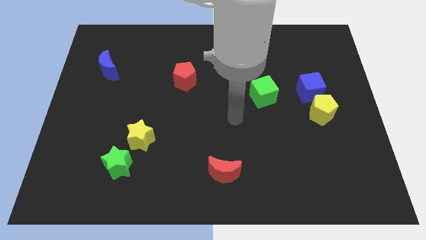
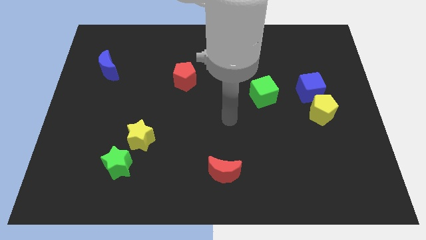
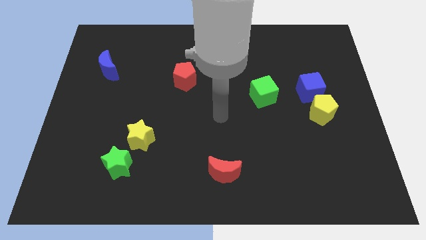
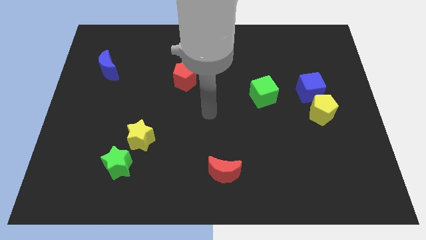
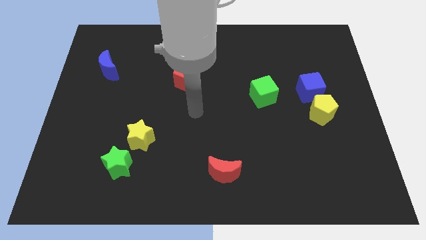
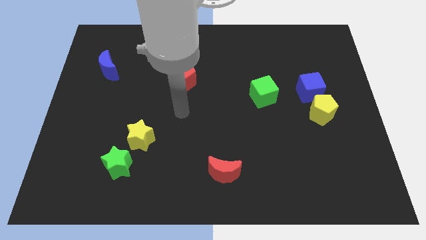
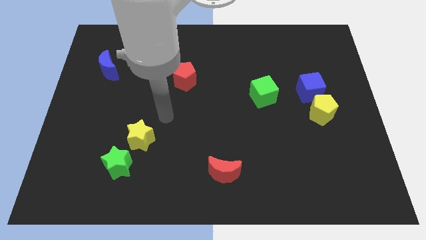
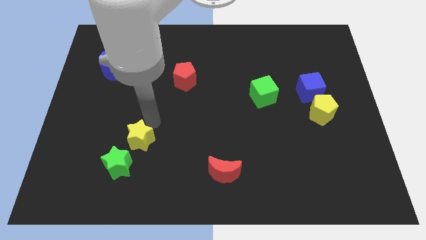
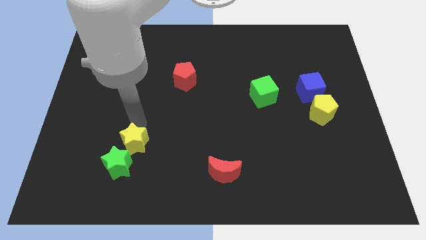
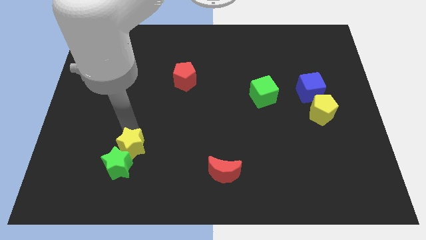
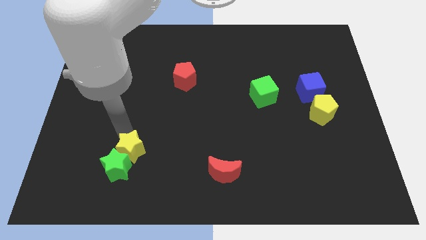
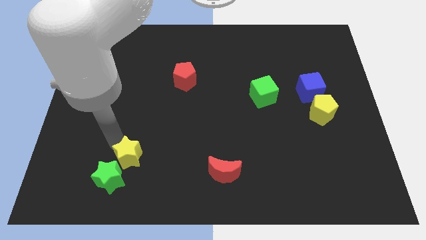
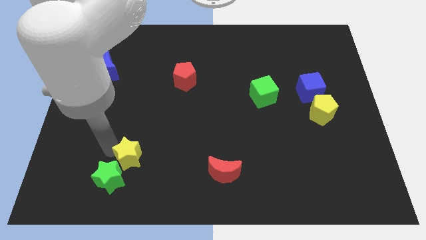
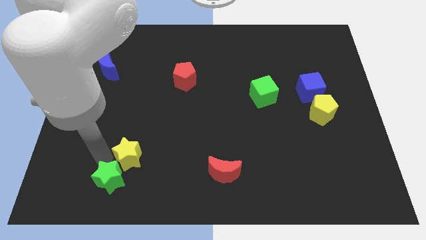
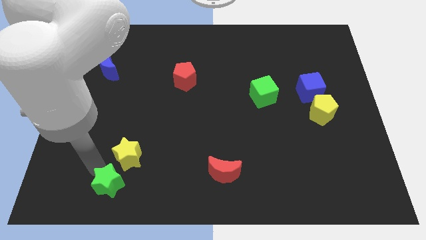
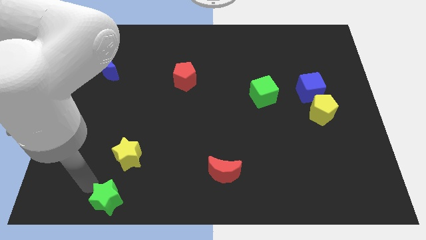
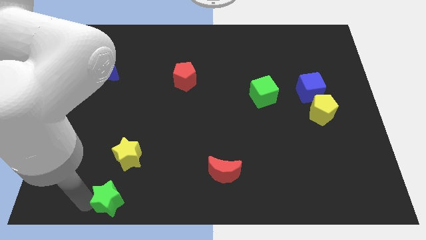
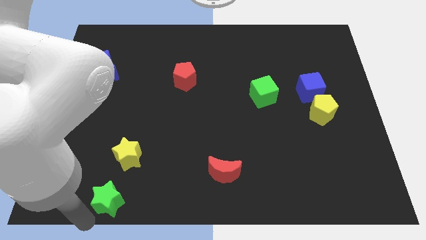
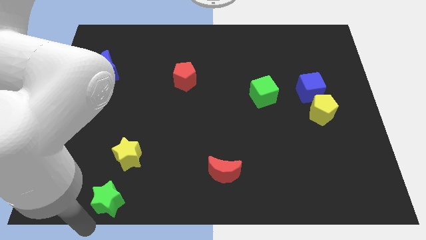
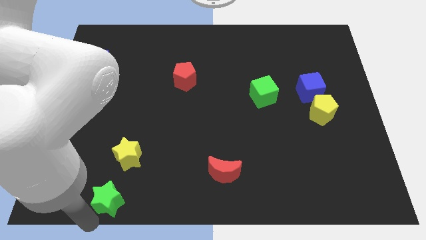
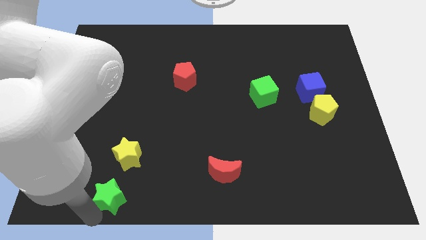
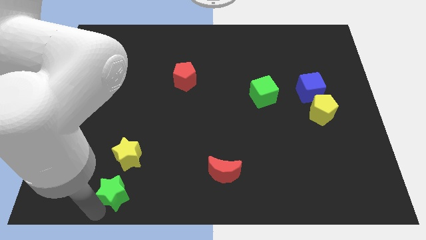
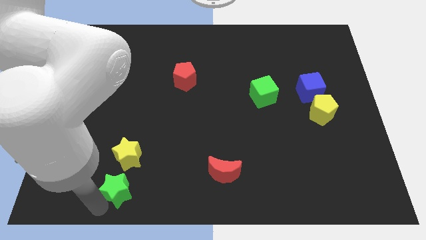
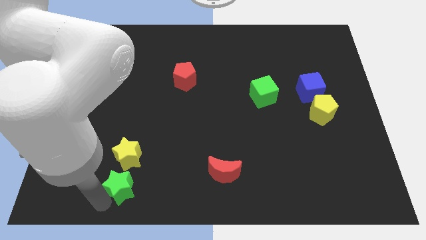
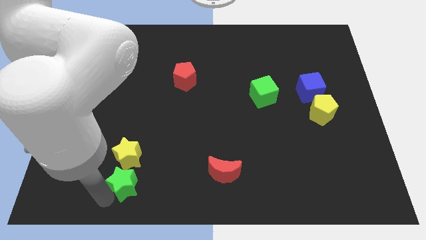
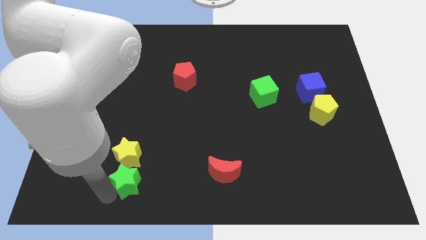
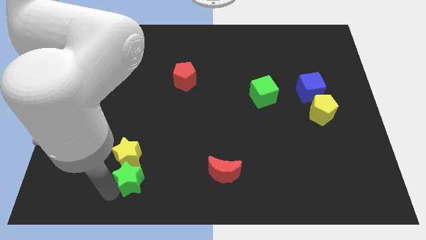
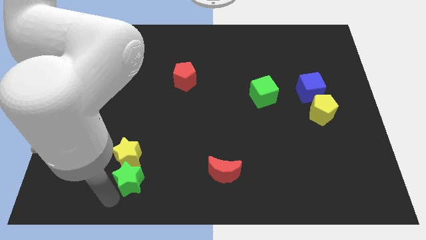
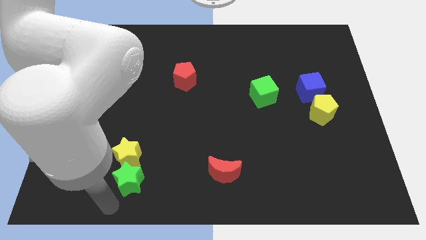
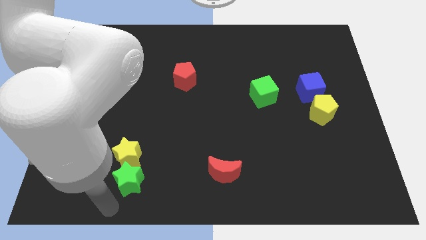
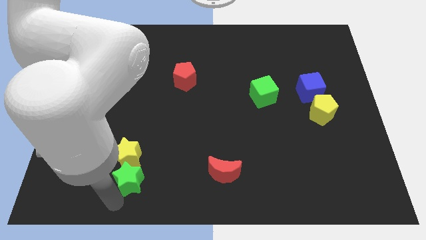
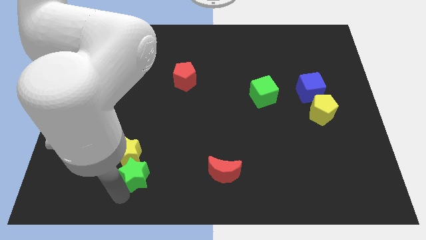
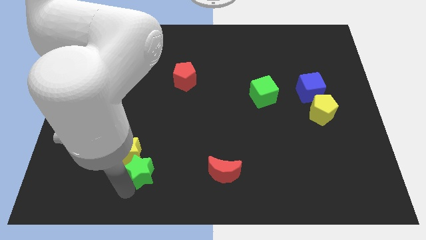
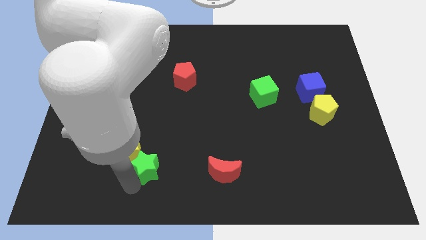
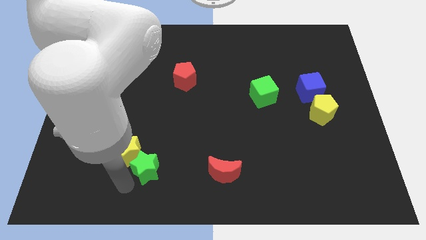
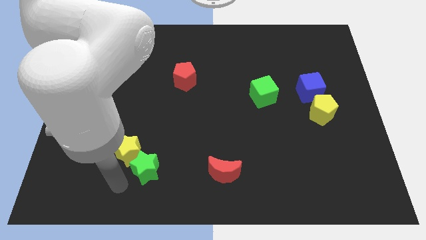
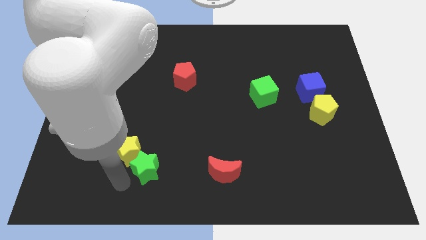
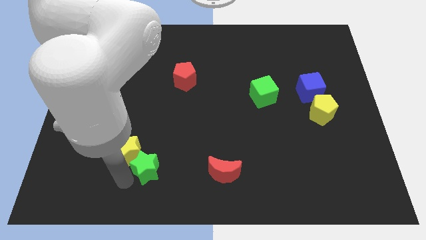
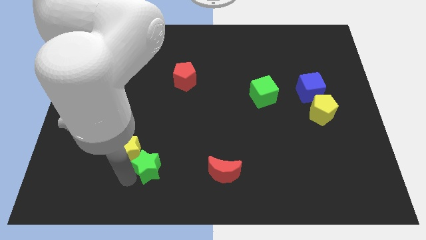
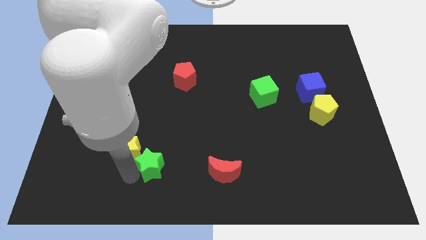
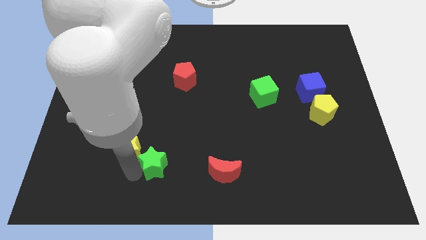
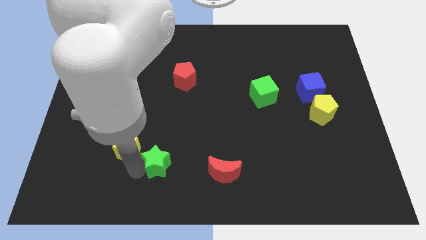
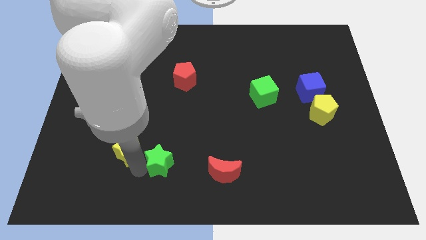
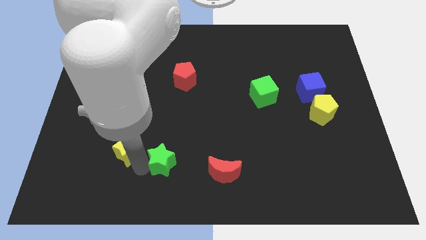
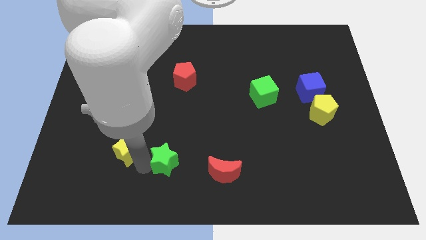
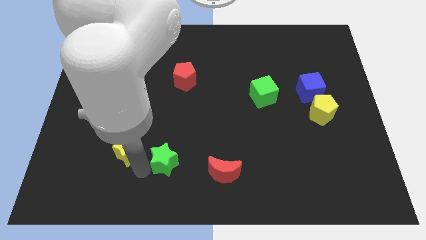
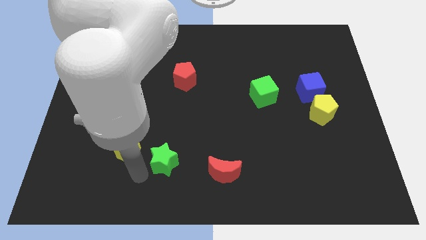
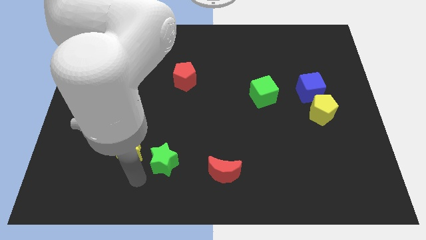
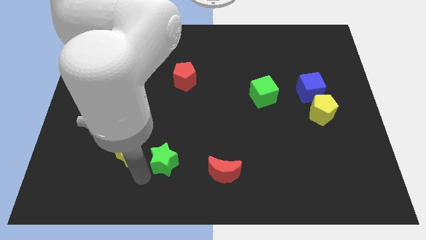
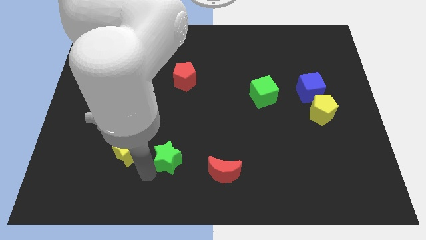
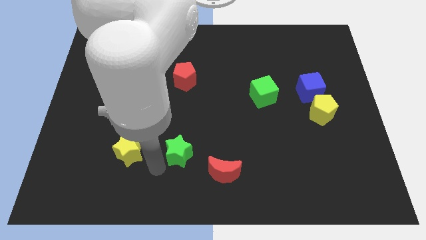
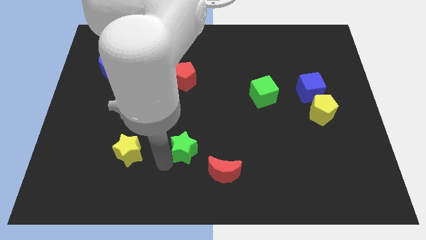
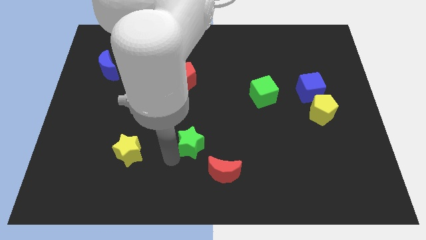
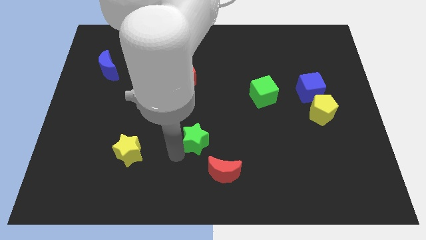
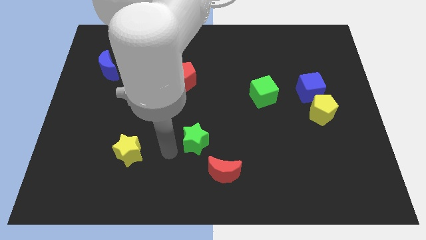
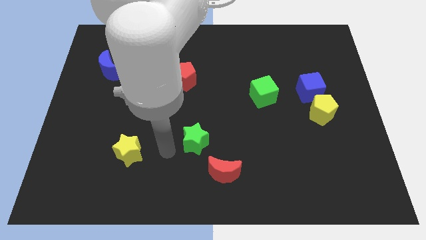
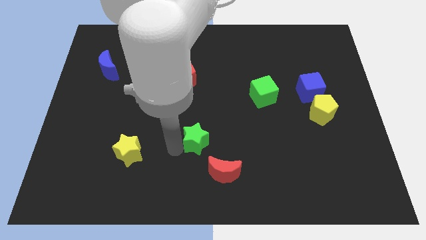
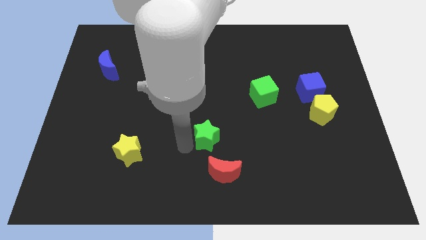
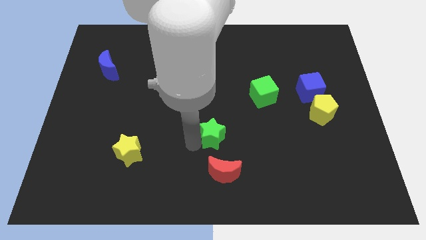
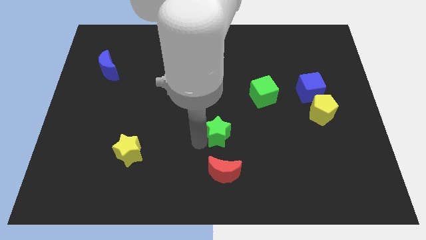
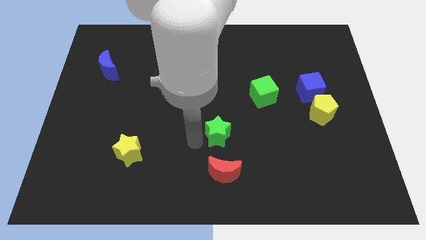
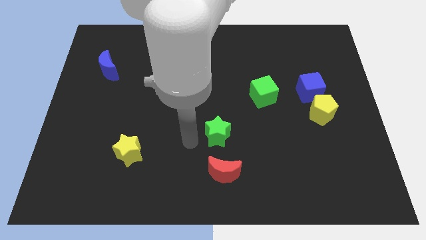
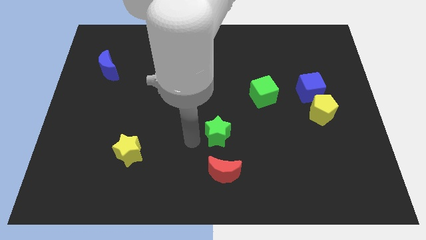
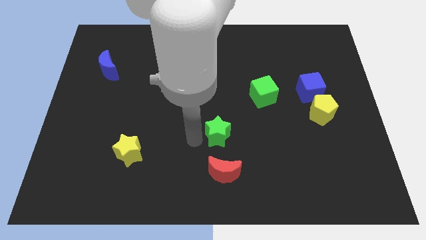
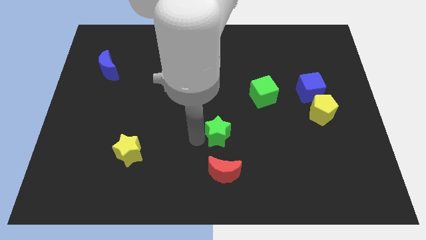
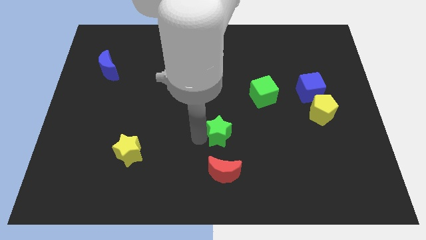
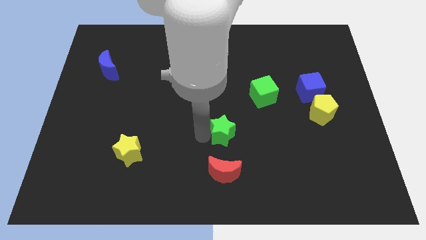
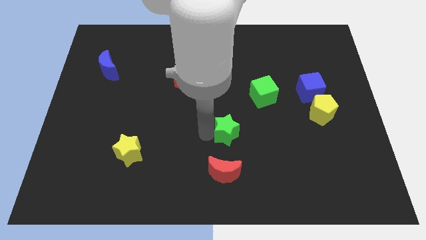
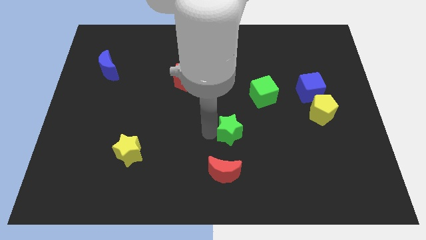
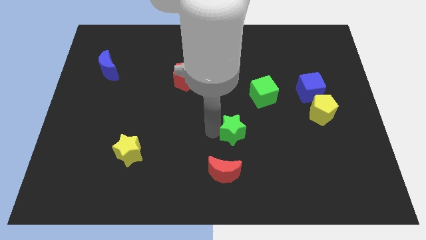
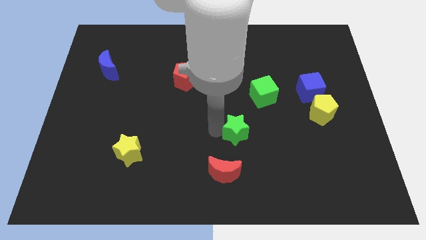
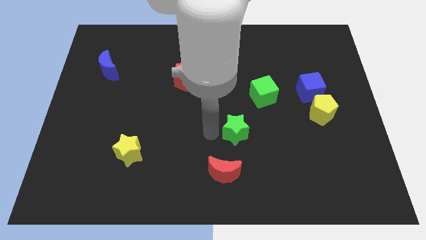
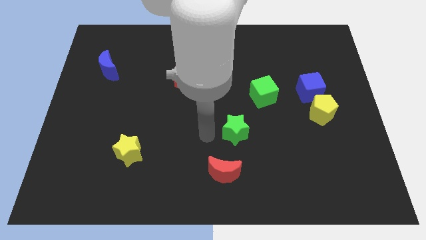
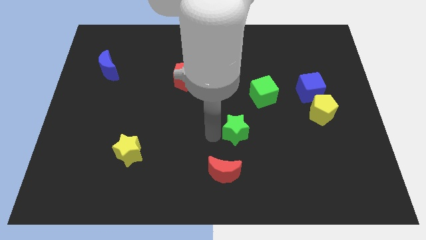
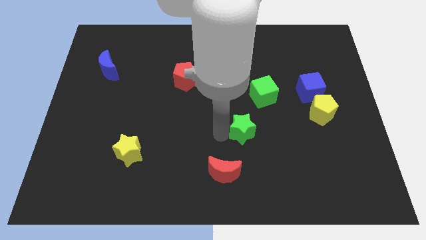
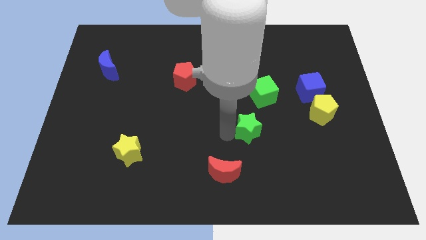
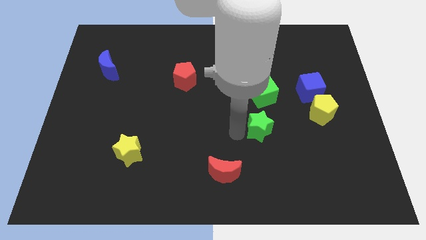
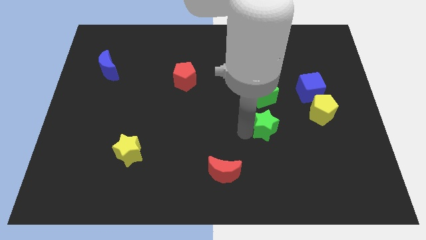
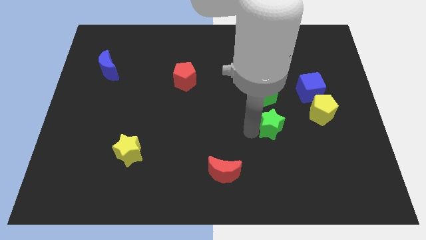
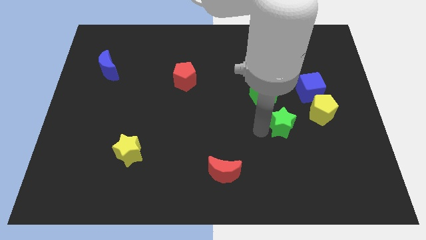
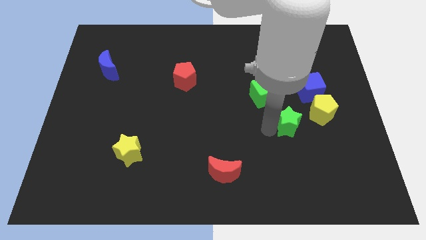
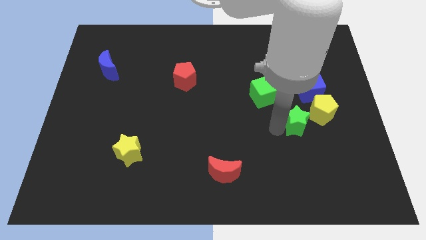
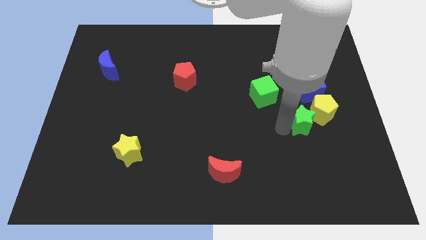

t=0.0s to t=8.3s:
push the green star towards the yellow pentagon
